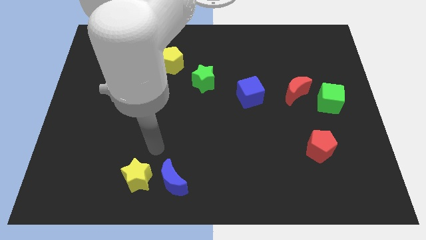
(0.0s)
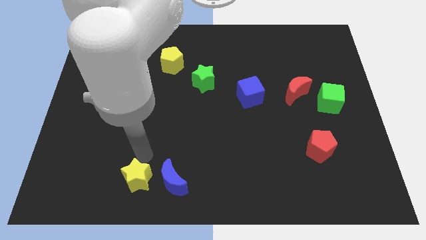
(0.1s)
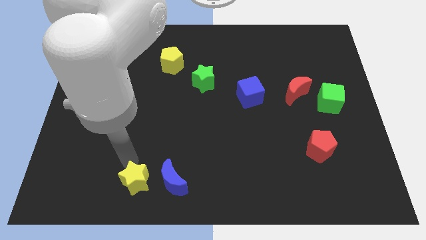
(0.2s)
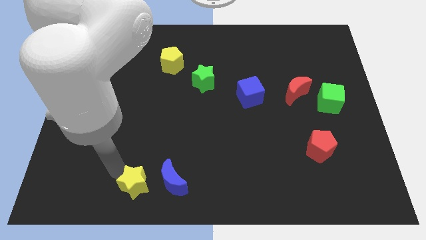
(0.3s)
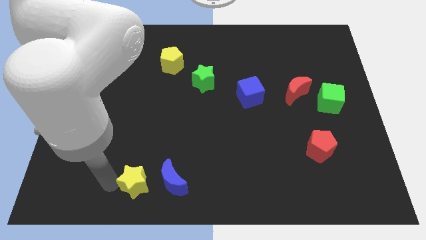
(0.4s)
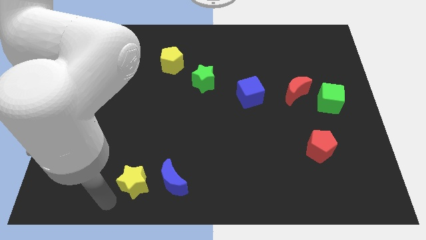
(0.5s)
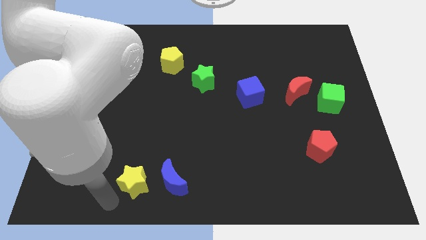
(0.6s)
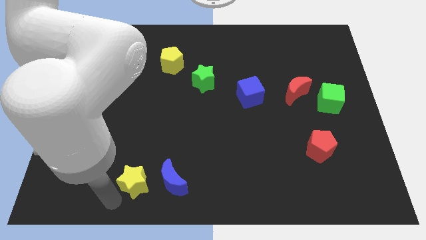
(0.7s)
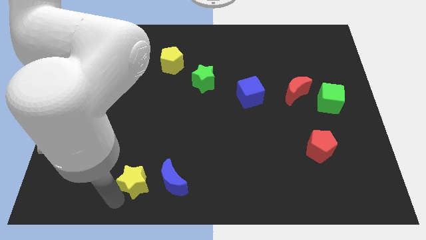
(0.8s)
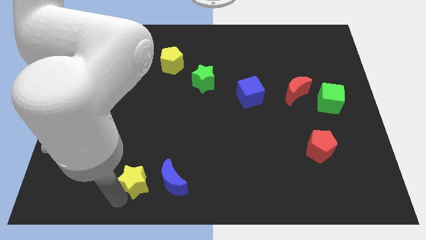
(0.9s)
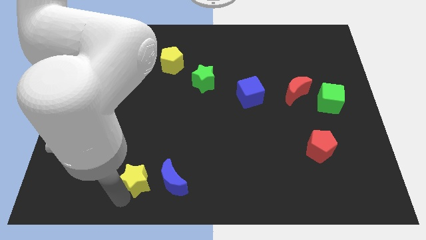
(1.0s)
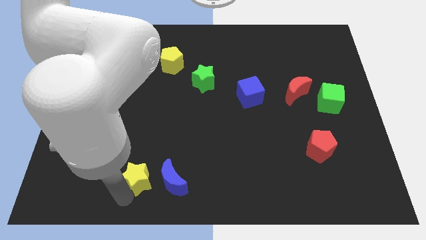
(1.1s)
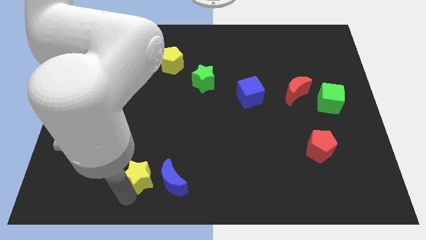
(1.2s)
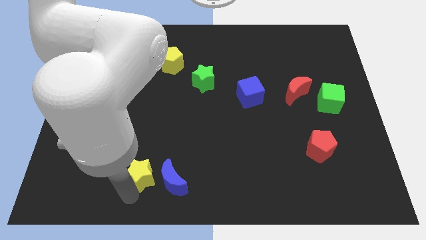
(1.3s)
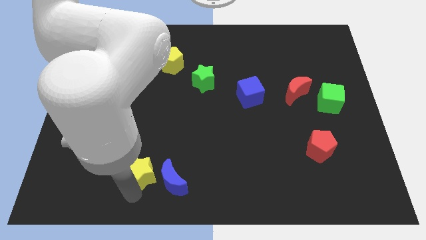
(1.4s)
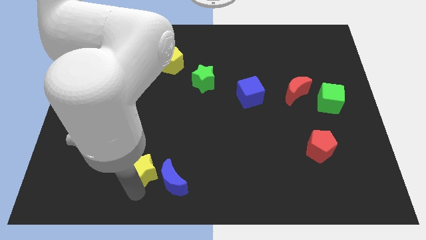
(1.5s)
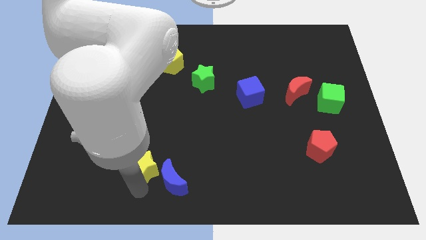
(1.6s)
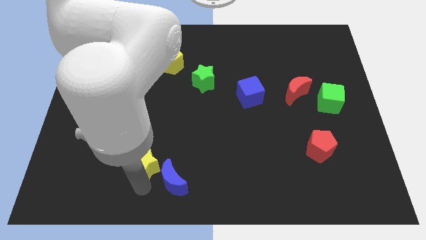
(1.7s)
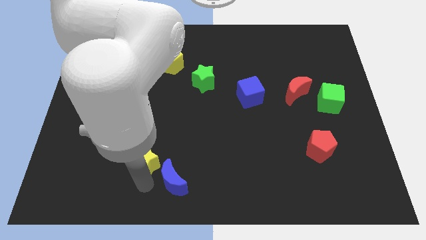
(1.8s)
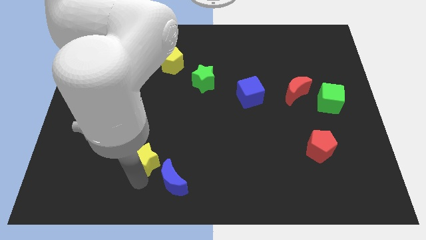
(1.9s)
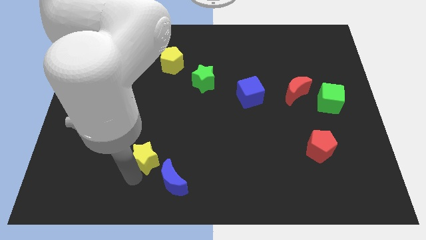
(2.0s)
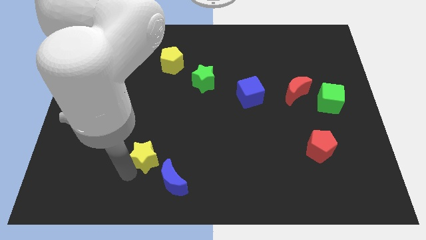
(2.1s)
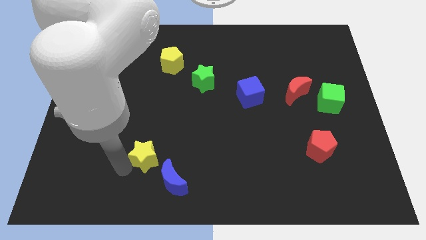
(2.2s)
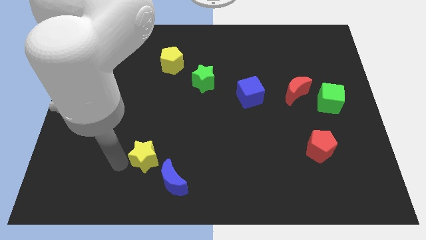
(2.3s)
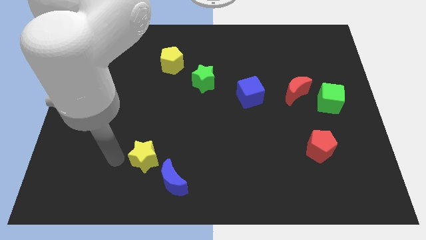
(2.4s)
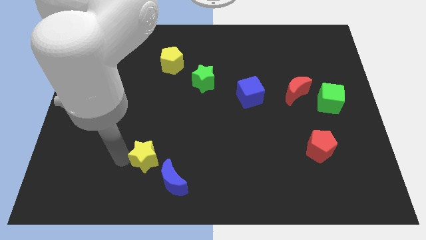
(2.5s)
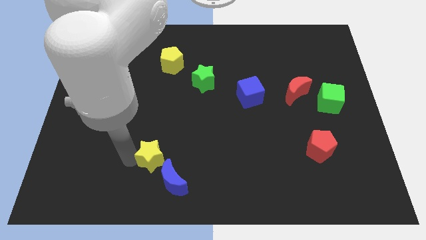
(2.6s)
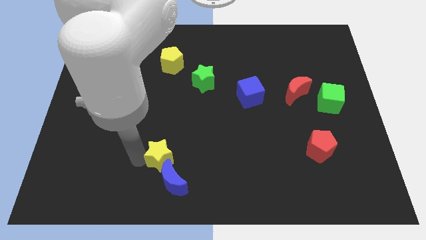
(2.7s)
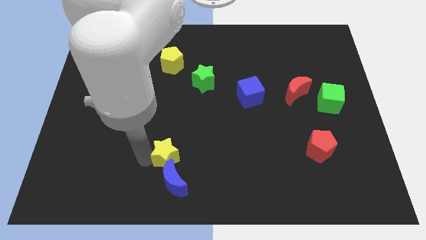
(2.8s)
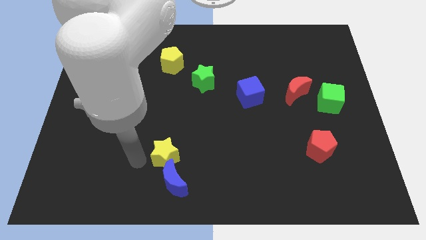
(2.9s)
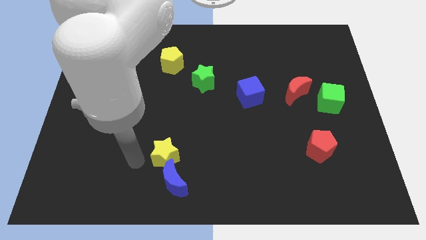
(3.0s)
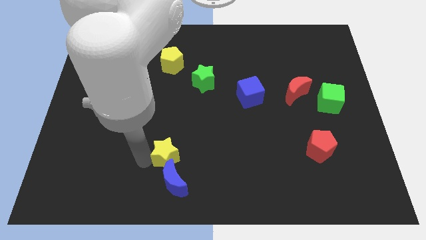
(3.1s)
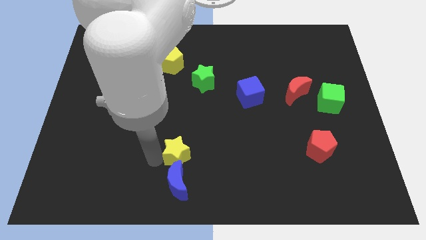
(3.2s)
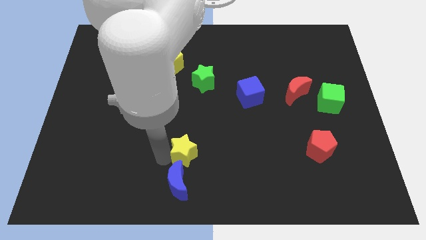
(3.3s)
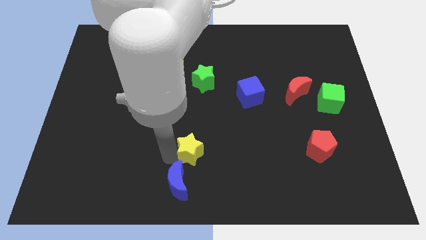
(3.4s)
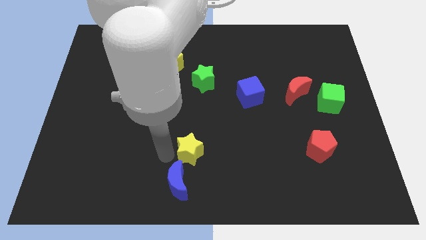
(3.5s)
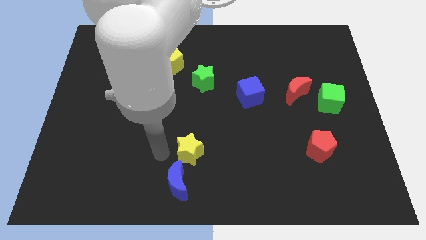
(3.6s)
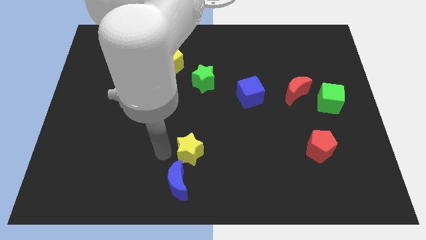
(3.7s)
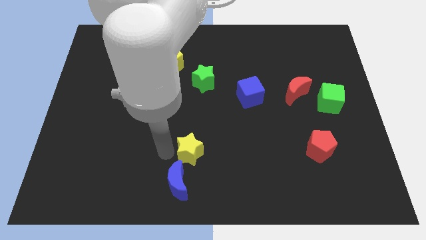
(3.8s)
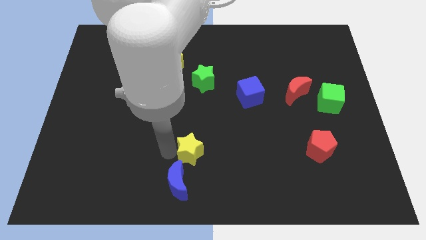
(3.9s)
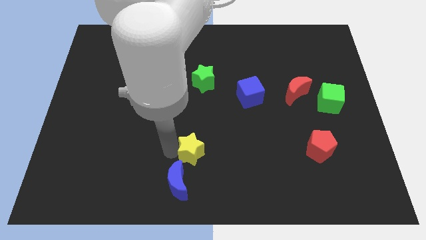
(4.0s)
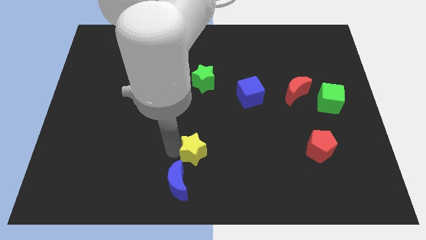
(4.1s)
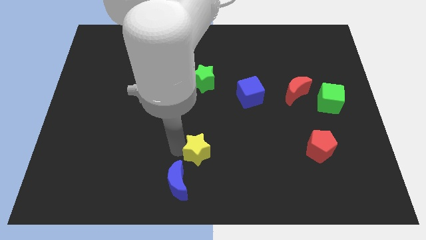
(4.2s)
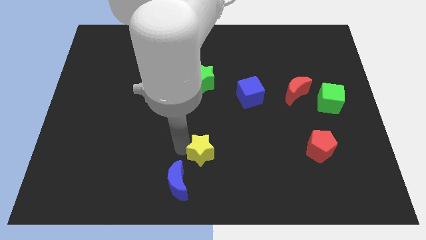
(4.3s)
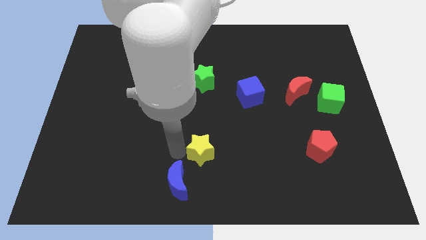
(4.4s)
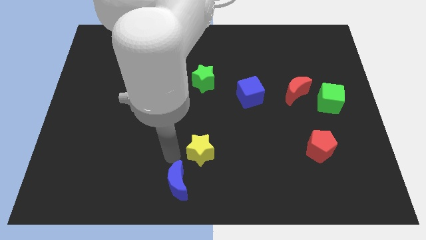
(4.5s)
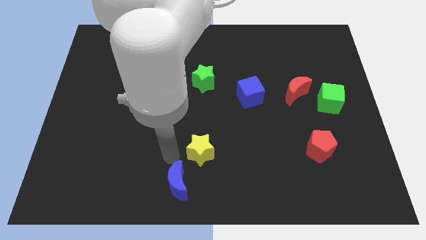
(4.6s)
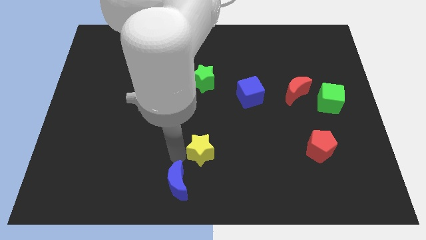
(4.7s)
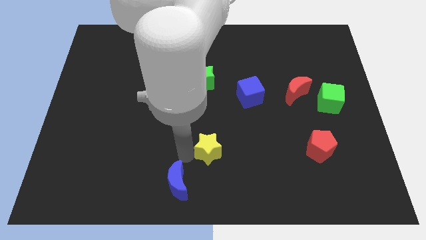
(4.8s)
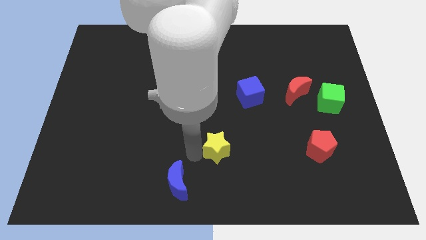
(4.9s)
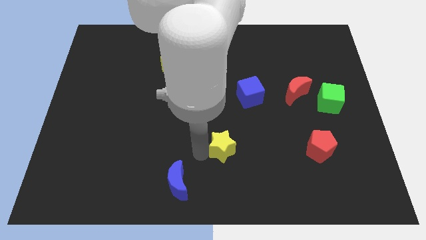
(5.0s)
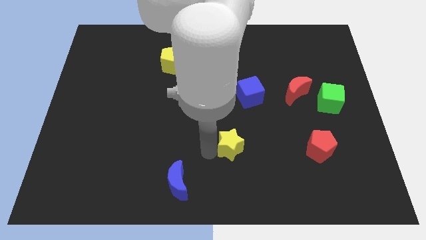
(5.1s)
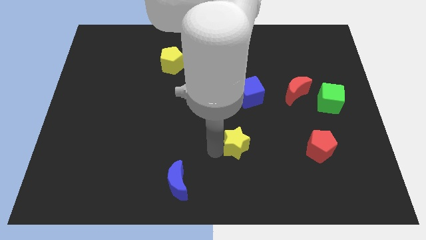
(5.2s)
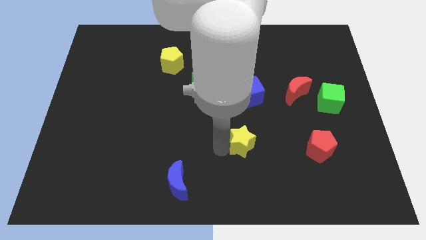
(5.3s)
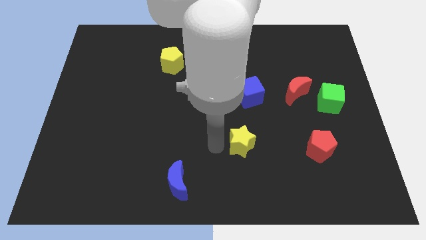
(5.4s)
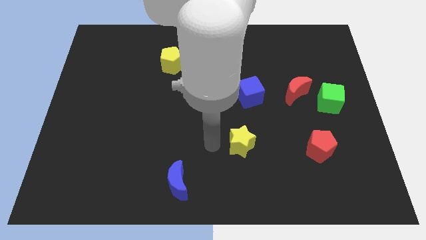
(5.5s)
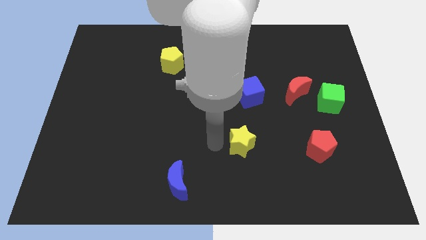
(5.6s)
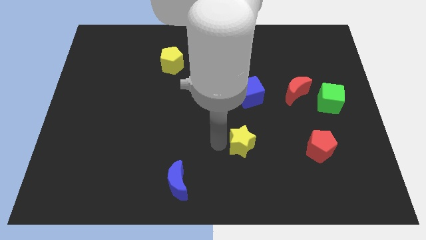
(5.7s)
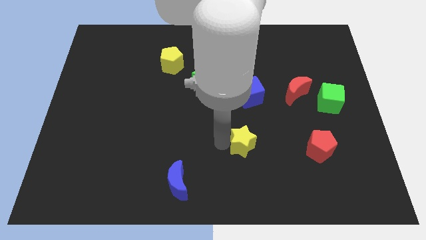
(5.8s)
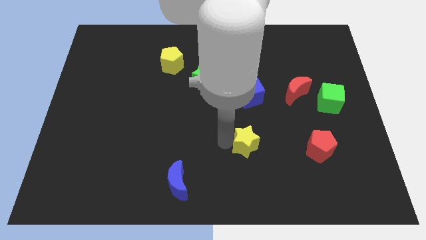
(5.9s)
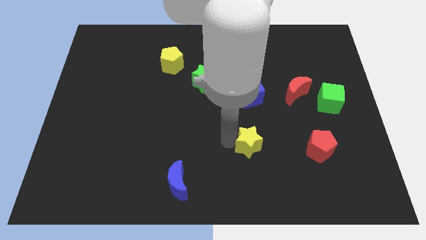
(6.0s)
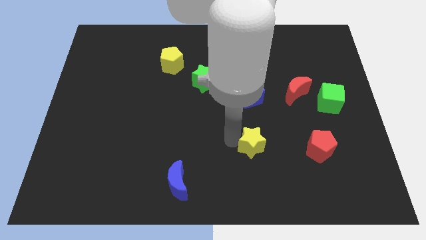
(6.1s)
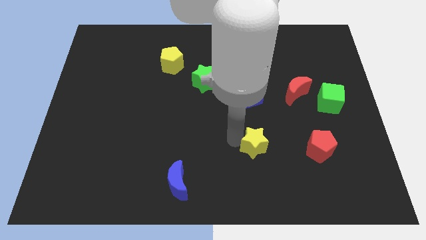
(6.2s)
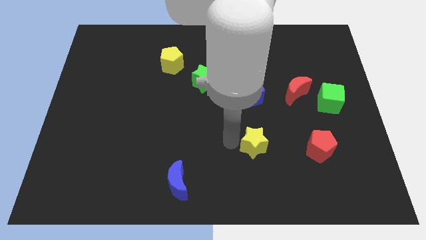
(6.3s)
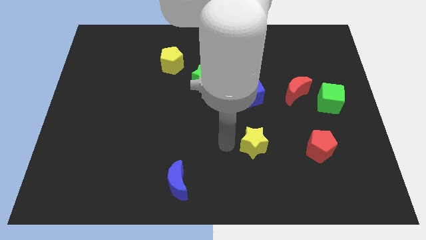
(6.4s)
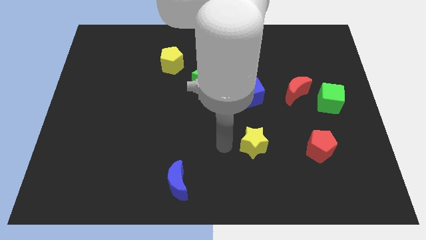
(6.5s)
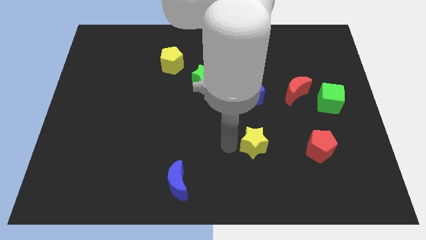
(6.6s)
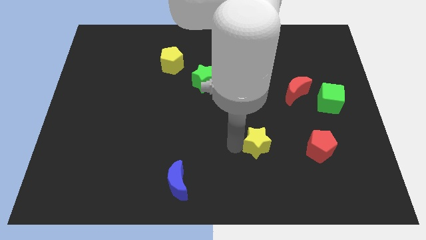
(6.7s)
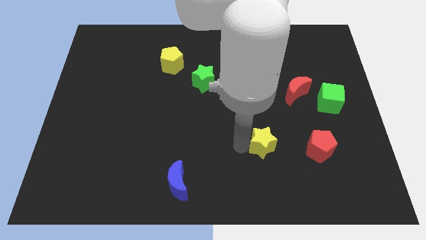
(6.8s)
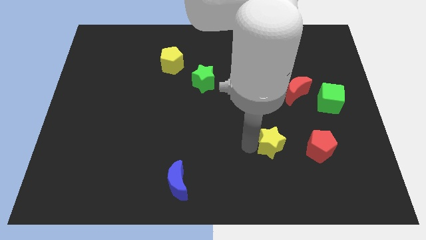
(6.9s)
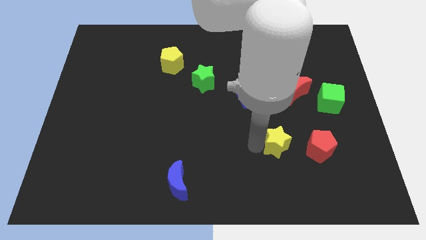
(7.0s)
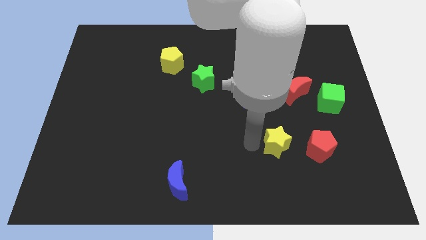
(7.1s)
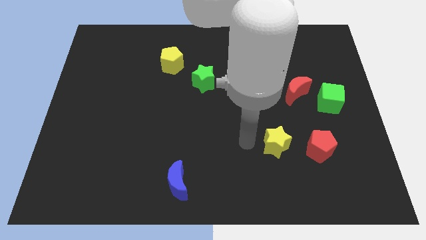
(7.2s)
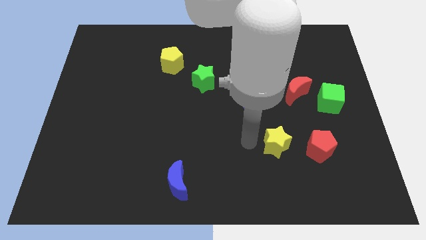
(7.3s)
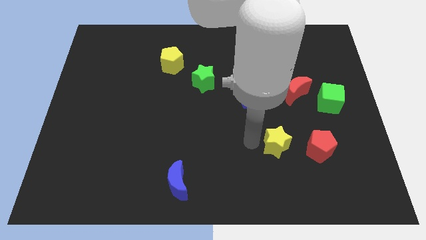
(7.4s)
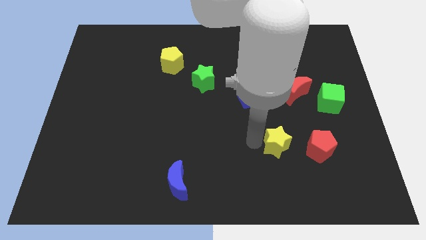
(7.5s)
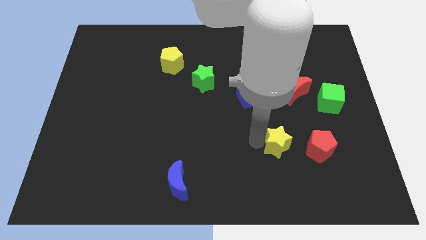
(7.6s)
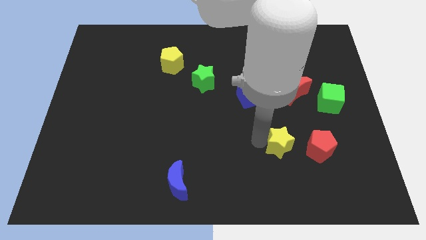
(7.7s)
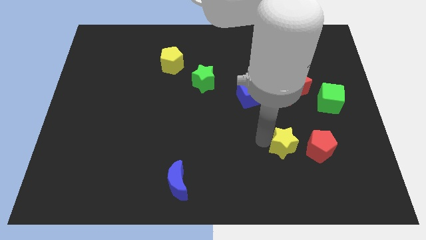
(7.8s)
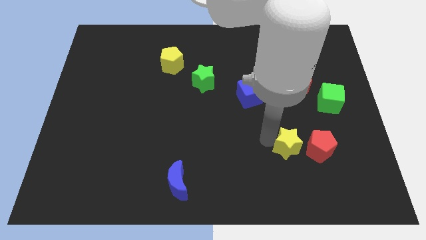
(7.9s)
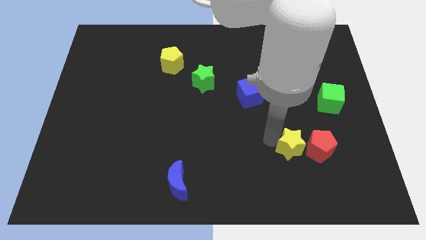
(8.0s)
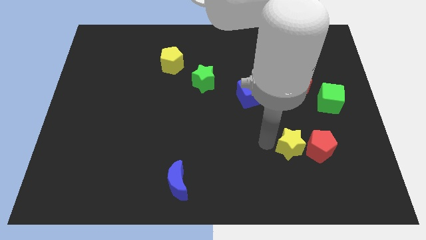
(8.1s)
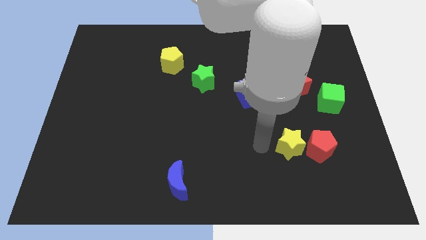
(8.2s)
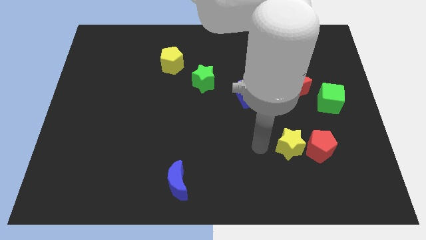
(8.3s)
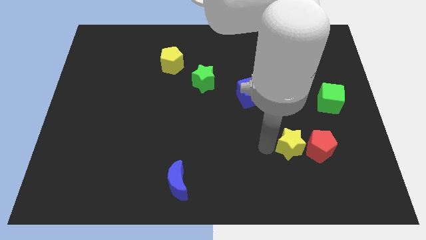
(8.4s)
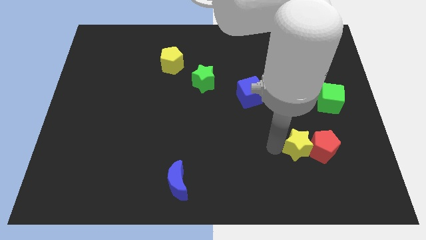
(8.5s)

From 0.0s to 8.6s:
put the yellow star towards the red pentagon
